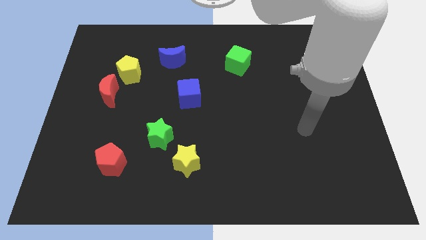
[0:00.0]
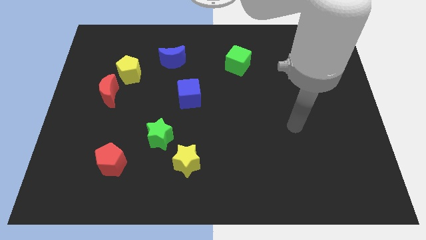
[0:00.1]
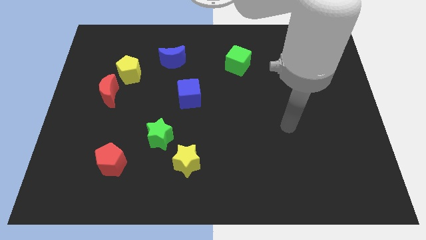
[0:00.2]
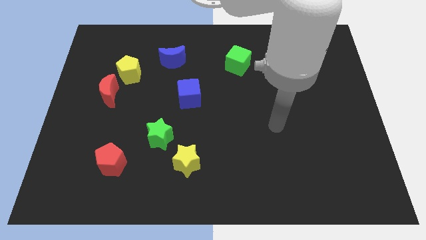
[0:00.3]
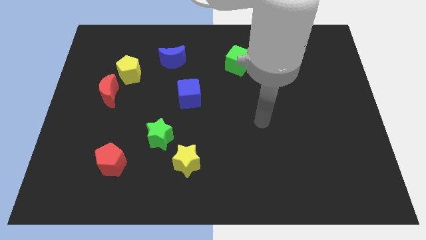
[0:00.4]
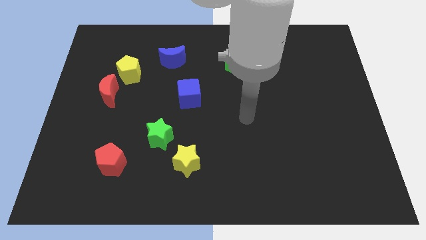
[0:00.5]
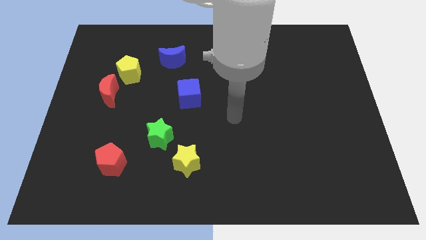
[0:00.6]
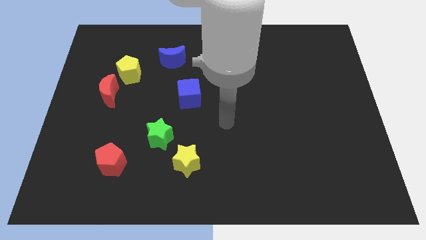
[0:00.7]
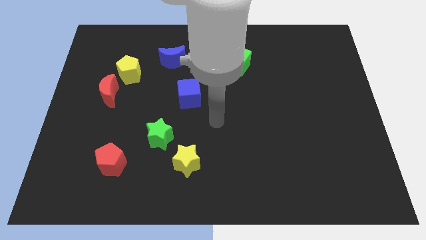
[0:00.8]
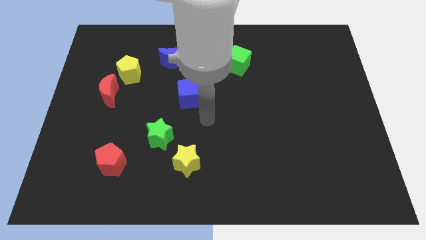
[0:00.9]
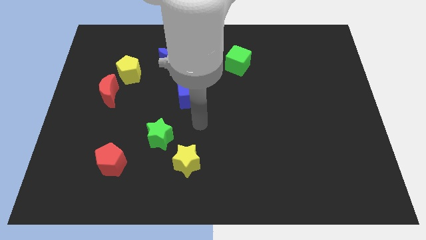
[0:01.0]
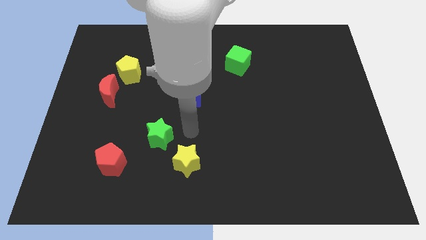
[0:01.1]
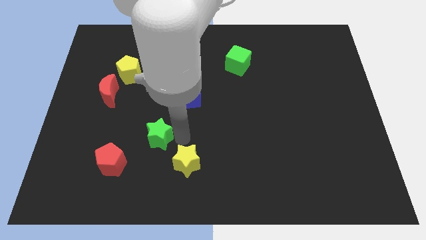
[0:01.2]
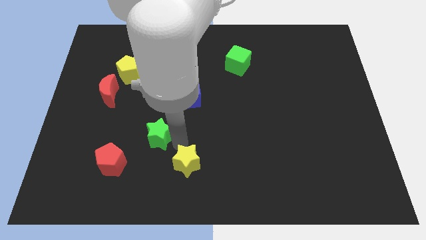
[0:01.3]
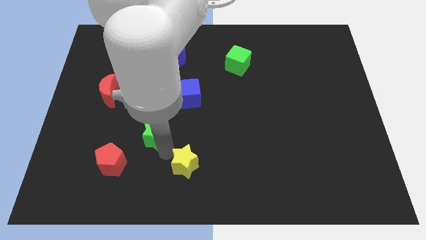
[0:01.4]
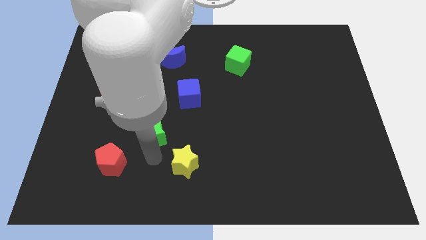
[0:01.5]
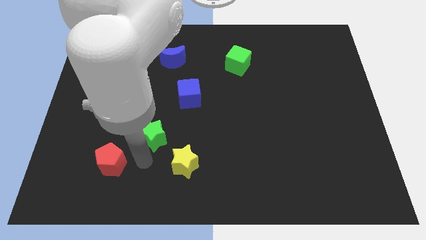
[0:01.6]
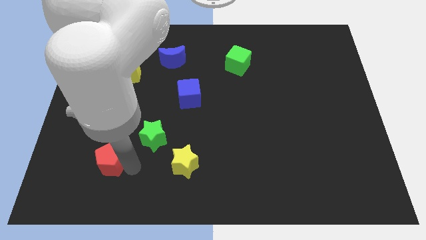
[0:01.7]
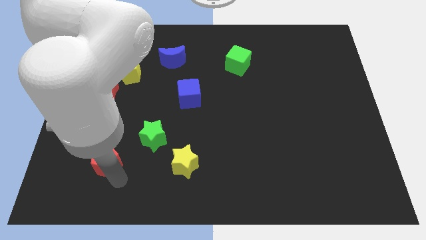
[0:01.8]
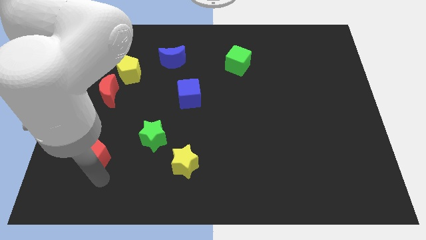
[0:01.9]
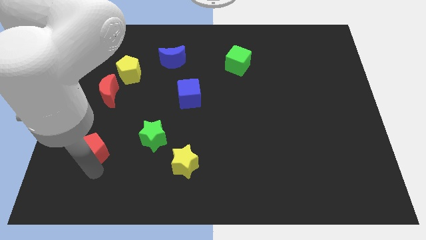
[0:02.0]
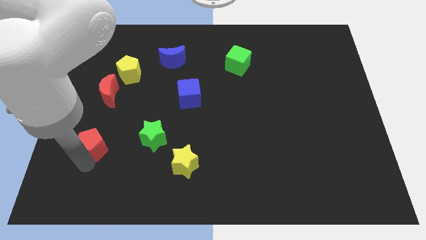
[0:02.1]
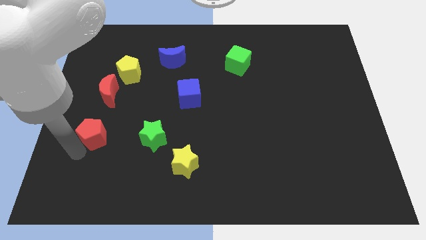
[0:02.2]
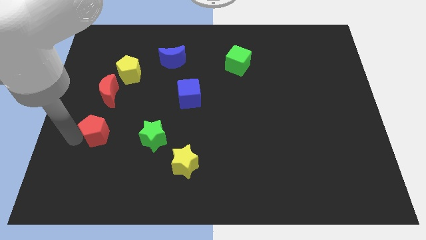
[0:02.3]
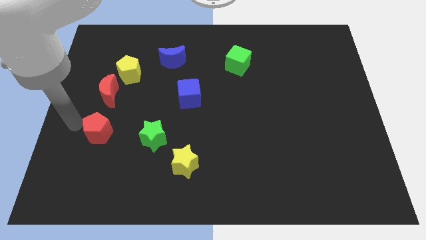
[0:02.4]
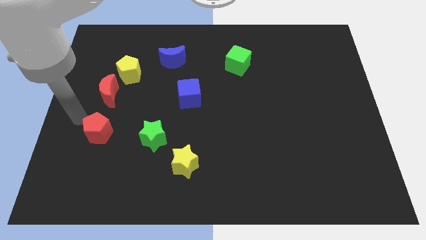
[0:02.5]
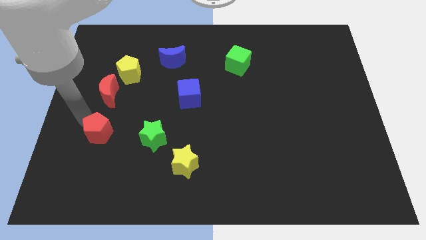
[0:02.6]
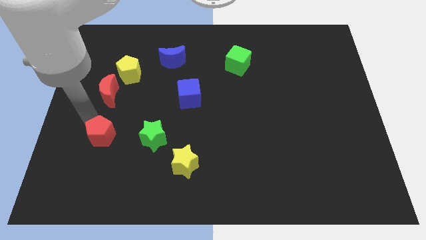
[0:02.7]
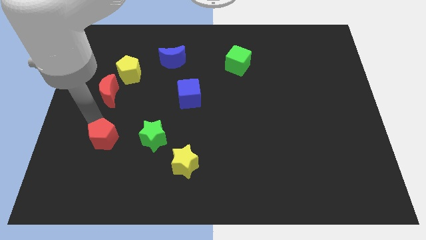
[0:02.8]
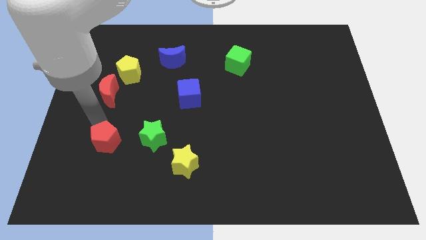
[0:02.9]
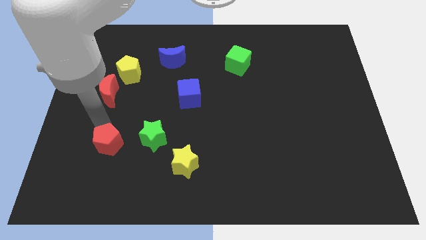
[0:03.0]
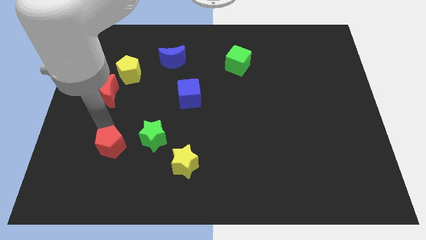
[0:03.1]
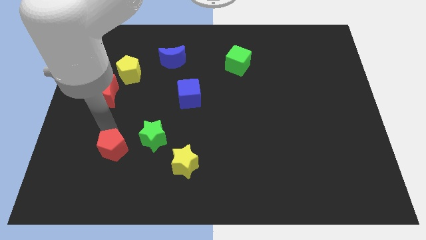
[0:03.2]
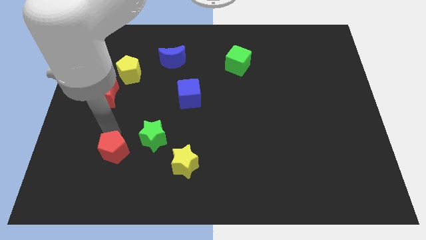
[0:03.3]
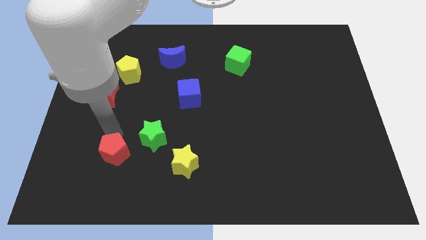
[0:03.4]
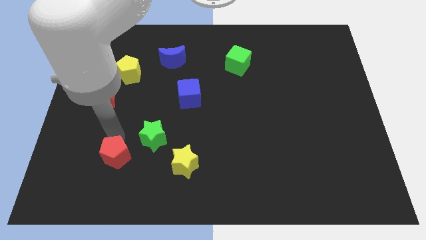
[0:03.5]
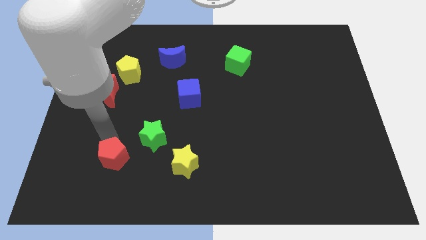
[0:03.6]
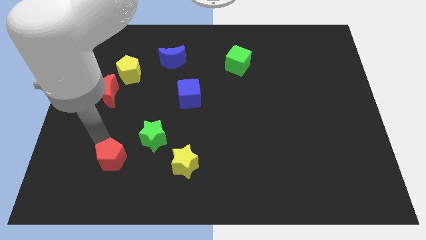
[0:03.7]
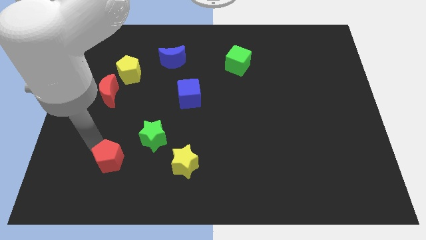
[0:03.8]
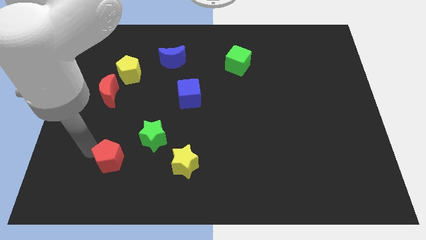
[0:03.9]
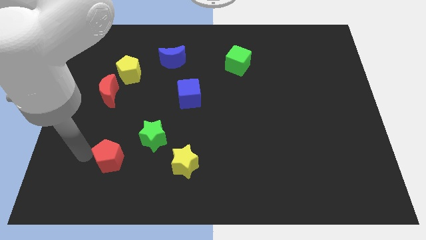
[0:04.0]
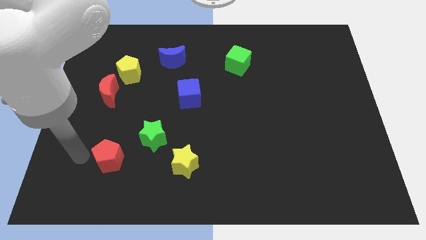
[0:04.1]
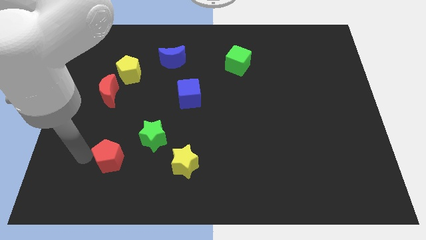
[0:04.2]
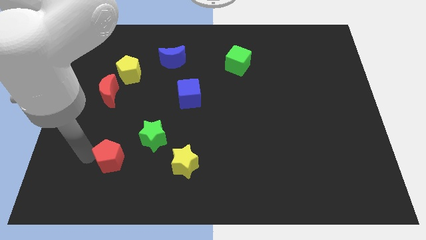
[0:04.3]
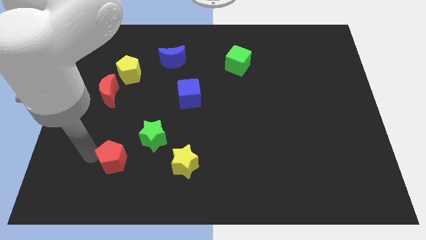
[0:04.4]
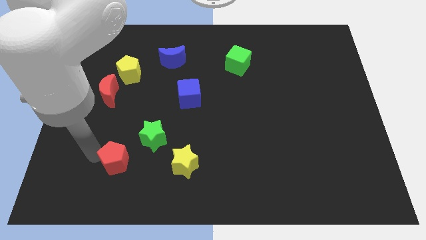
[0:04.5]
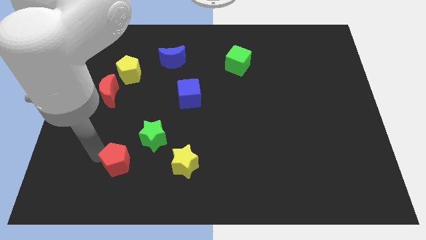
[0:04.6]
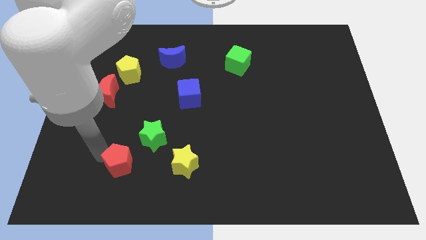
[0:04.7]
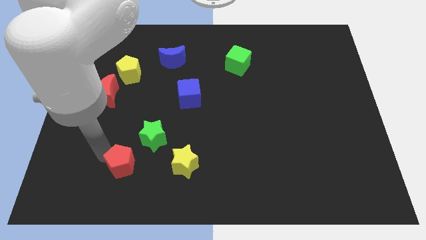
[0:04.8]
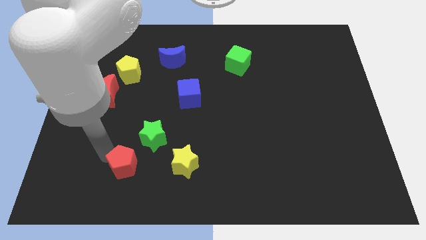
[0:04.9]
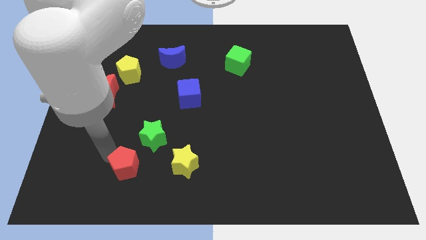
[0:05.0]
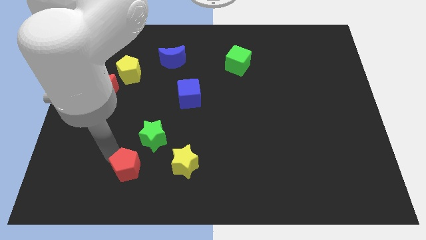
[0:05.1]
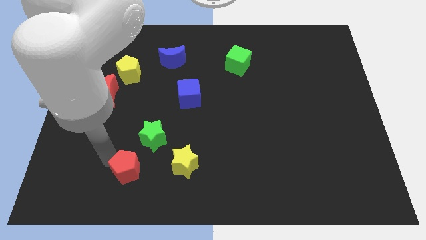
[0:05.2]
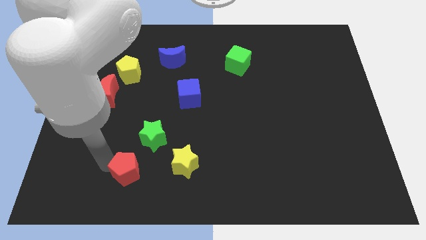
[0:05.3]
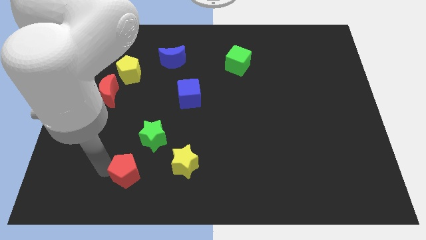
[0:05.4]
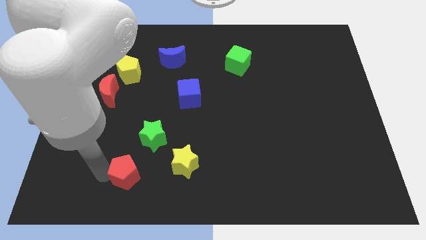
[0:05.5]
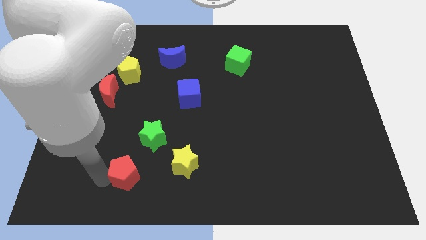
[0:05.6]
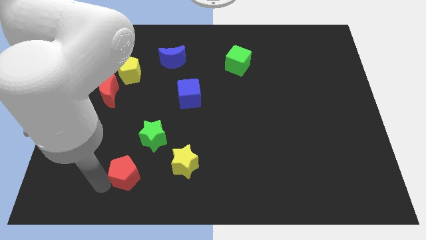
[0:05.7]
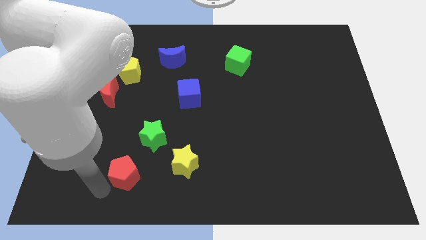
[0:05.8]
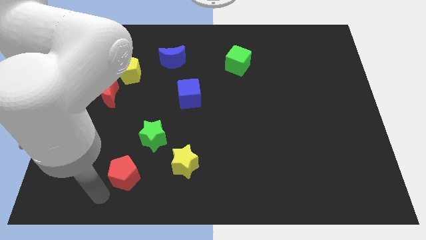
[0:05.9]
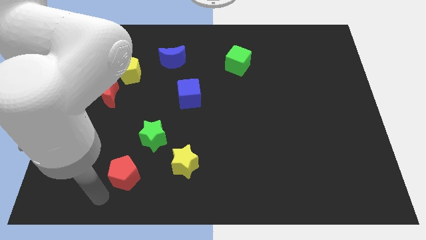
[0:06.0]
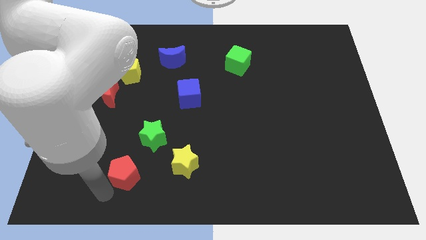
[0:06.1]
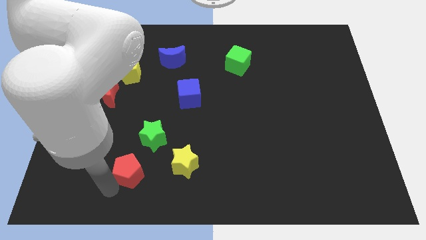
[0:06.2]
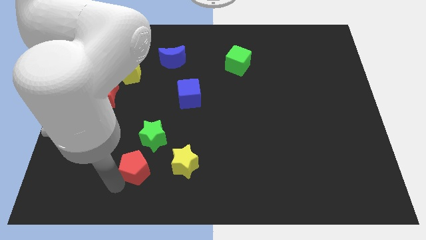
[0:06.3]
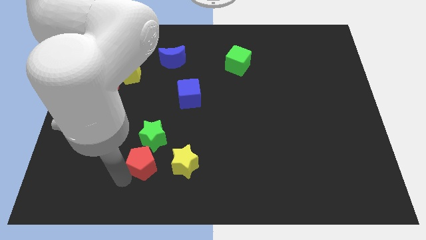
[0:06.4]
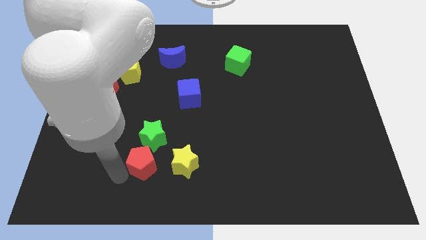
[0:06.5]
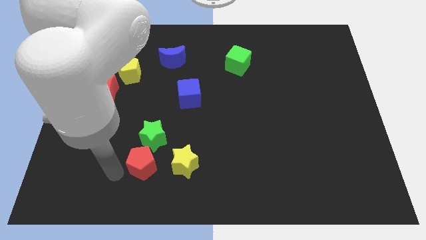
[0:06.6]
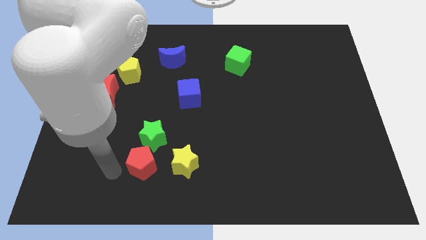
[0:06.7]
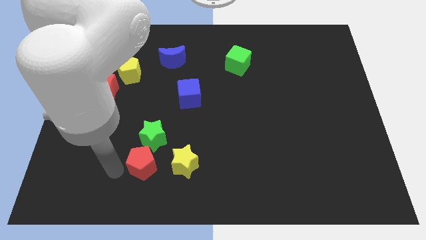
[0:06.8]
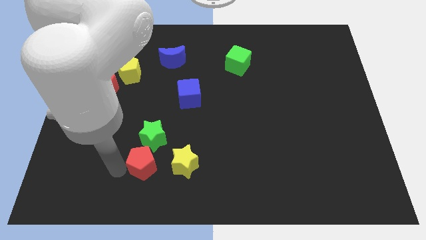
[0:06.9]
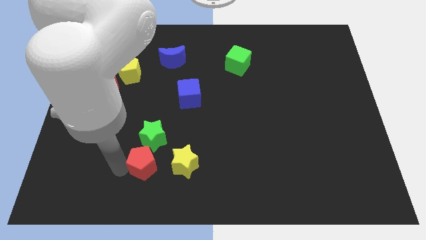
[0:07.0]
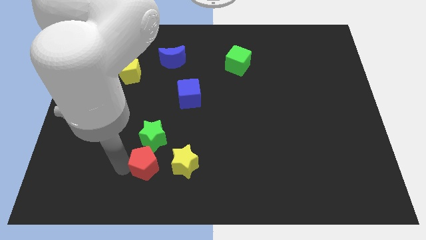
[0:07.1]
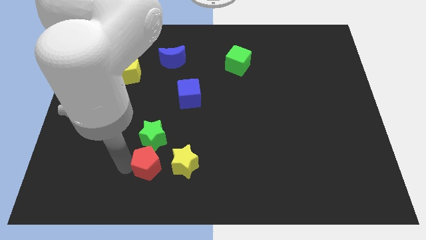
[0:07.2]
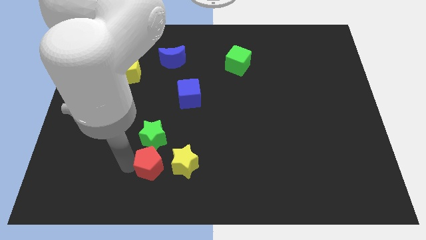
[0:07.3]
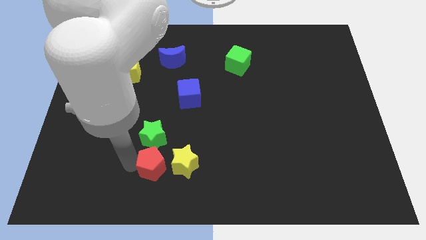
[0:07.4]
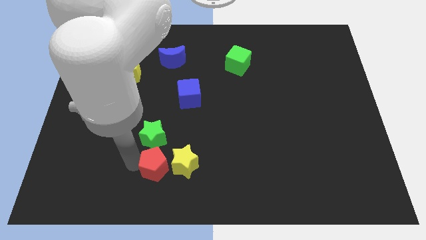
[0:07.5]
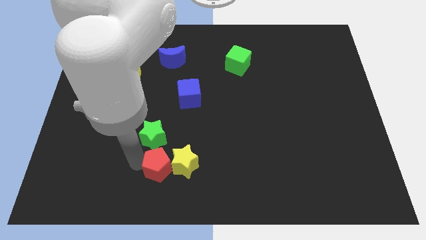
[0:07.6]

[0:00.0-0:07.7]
put the red pentagon close to the yellow star

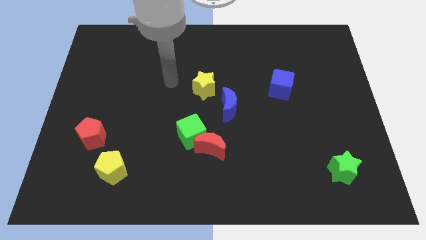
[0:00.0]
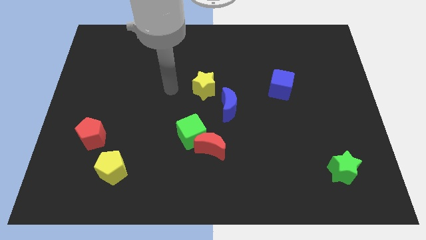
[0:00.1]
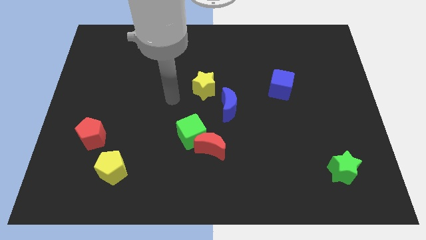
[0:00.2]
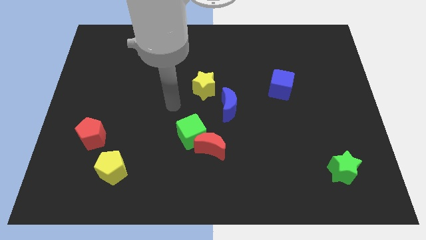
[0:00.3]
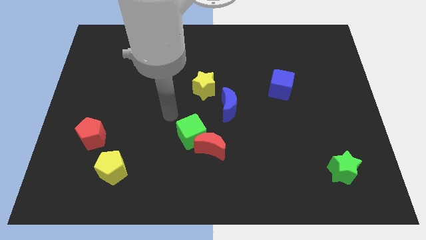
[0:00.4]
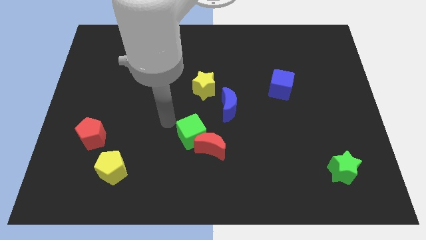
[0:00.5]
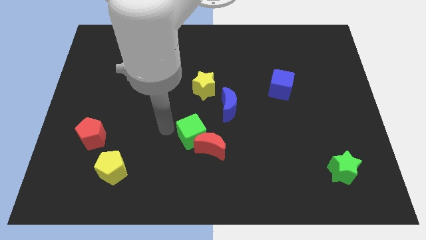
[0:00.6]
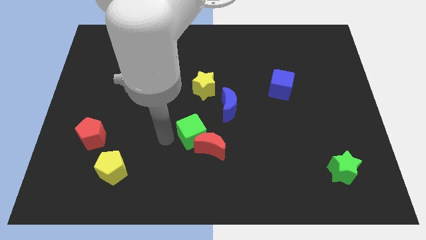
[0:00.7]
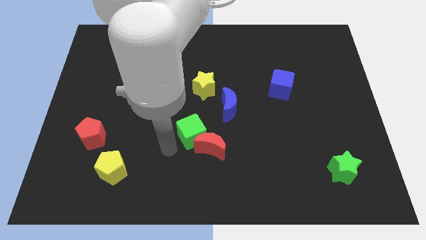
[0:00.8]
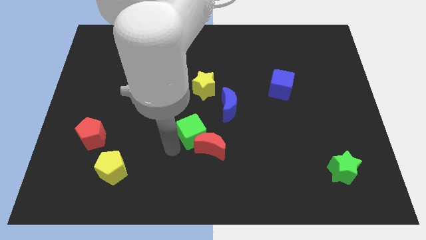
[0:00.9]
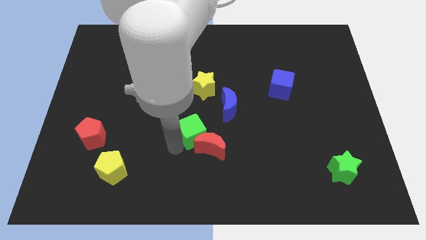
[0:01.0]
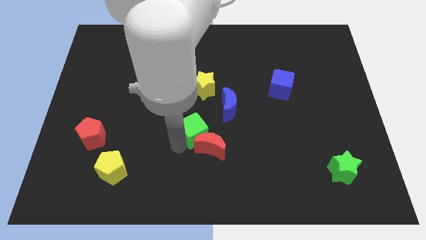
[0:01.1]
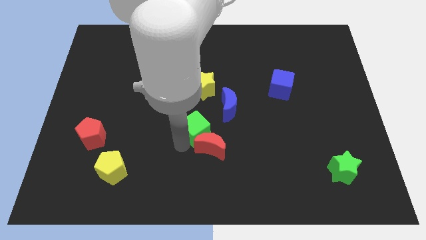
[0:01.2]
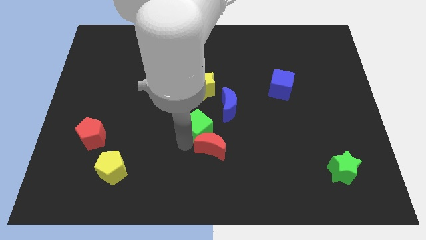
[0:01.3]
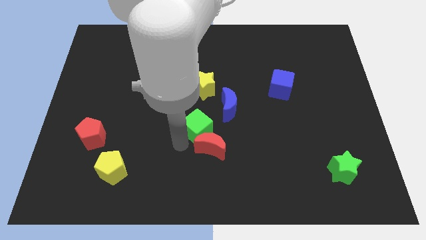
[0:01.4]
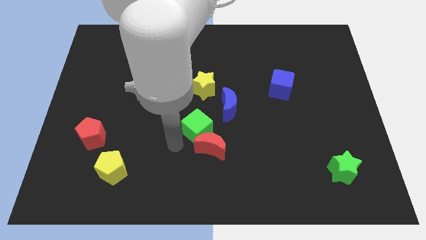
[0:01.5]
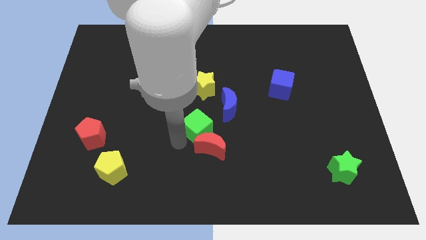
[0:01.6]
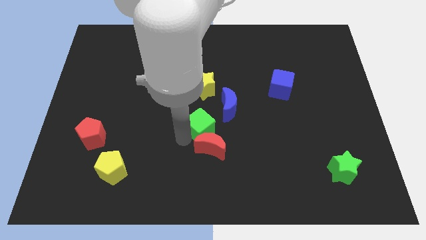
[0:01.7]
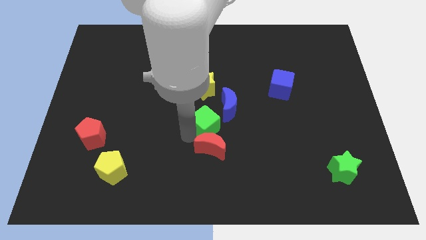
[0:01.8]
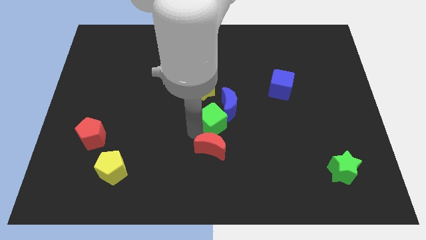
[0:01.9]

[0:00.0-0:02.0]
move the green cube next to the blue moon
